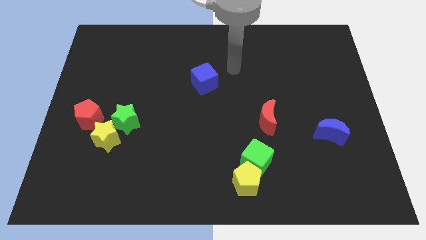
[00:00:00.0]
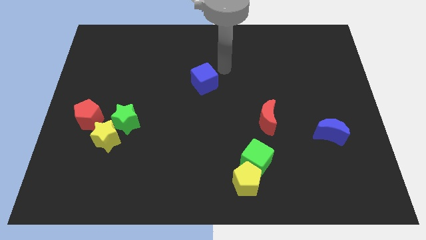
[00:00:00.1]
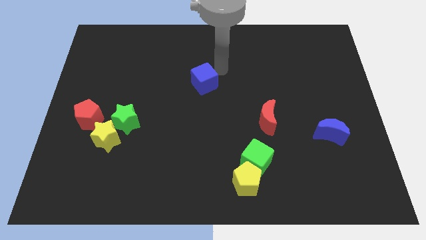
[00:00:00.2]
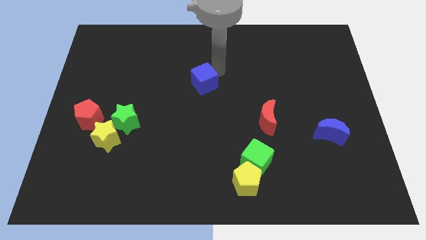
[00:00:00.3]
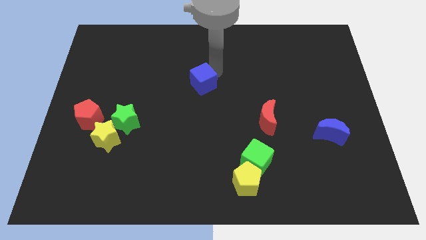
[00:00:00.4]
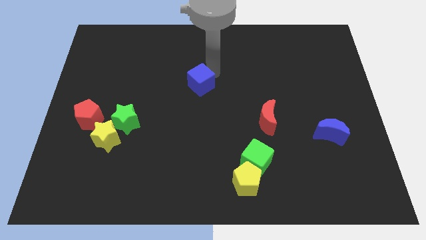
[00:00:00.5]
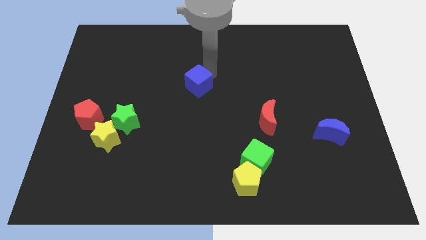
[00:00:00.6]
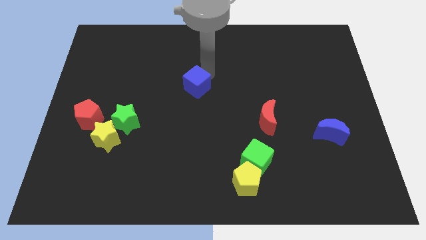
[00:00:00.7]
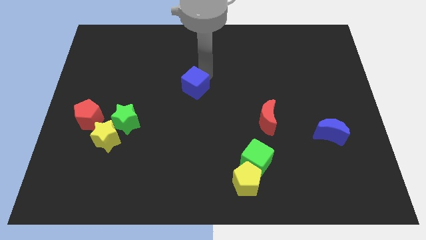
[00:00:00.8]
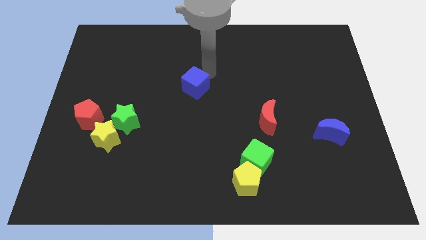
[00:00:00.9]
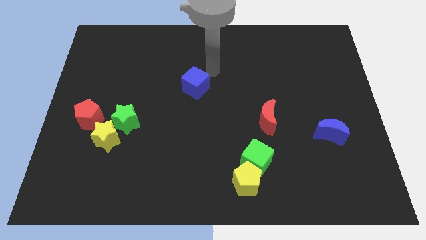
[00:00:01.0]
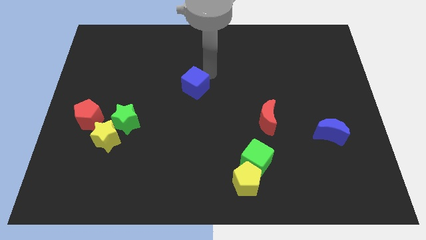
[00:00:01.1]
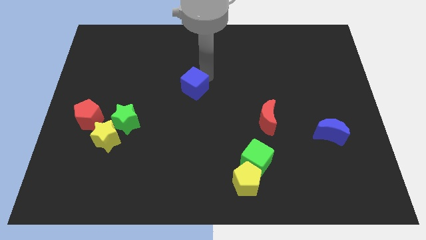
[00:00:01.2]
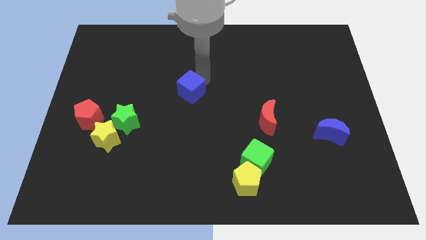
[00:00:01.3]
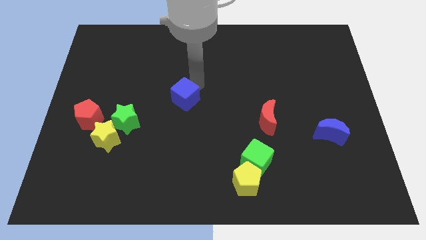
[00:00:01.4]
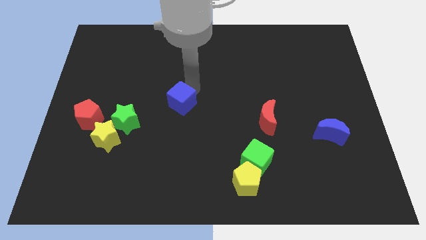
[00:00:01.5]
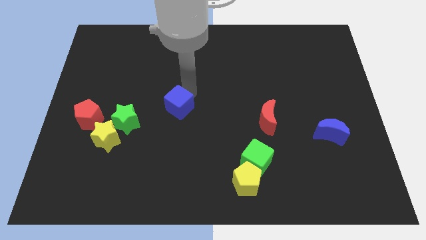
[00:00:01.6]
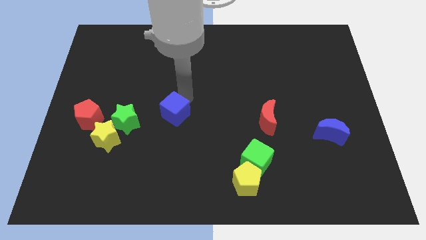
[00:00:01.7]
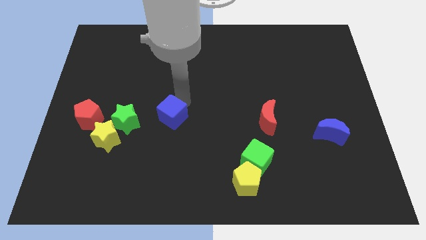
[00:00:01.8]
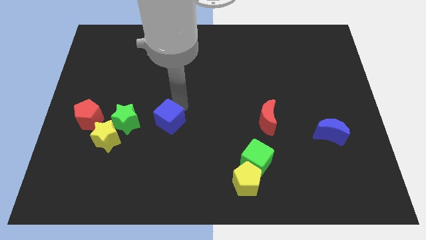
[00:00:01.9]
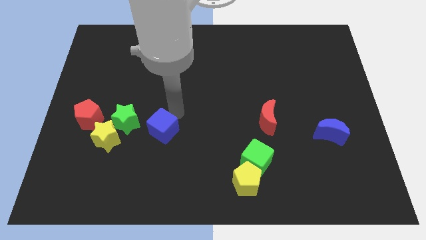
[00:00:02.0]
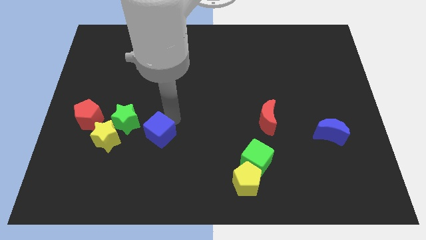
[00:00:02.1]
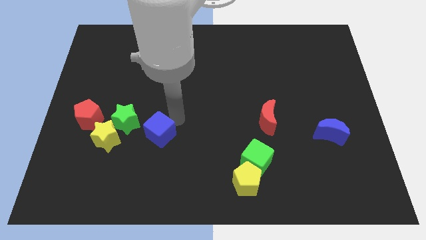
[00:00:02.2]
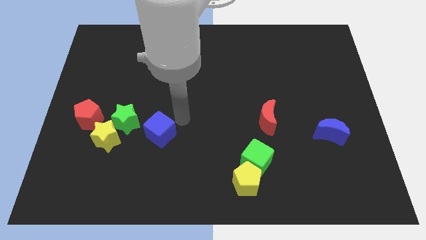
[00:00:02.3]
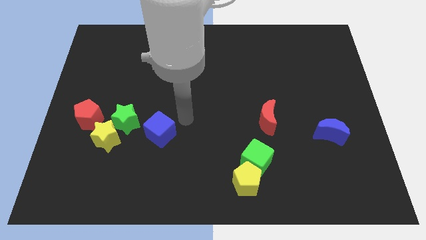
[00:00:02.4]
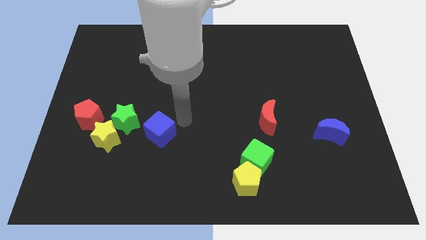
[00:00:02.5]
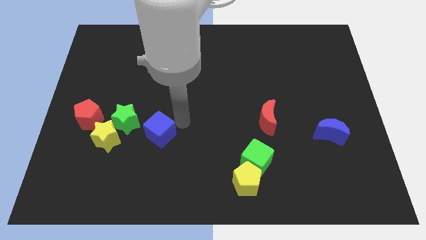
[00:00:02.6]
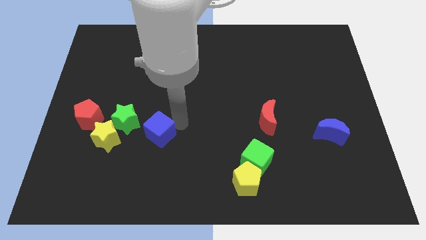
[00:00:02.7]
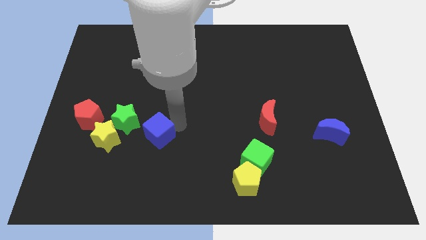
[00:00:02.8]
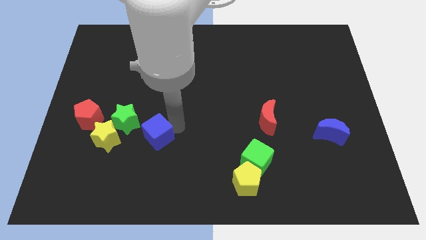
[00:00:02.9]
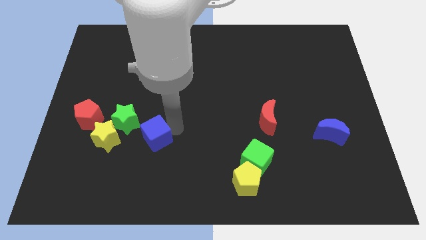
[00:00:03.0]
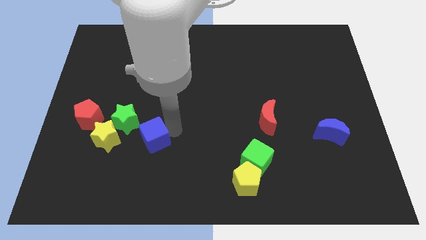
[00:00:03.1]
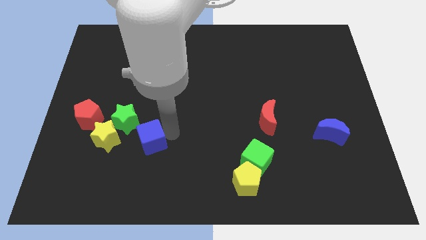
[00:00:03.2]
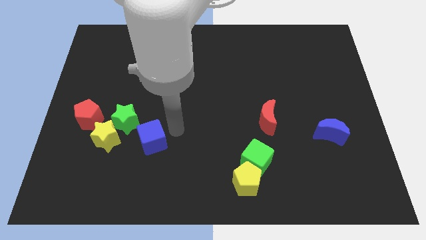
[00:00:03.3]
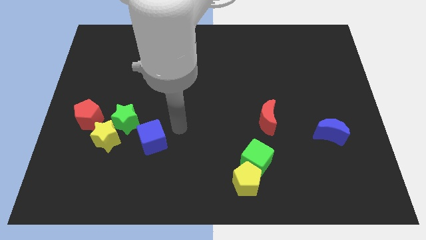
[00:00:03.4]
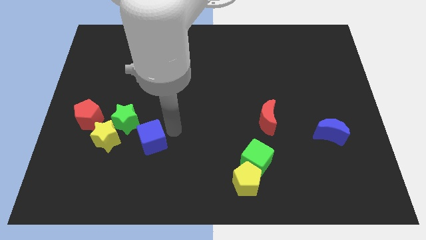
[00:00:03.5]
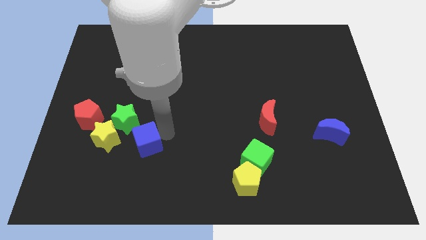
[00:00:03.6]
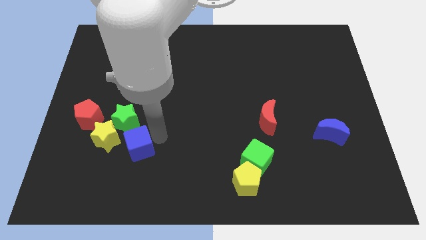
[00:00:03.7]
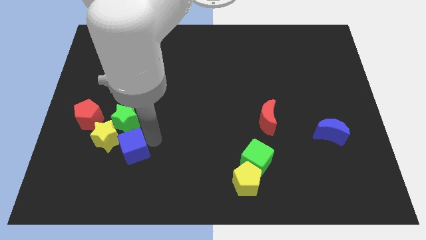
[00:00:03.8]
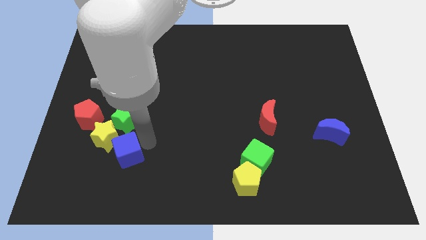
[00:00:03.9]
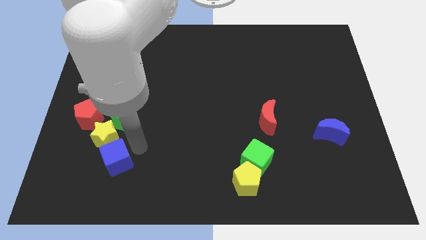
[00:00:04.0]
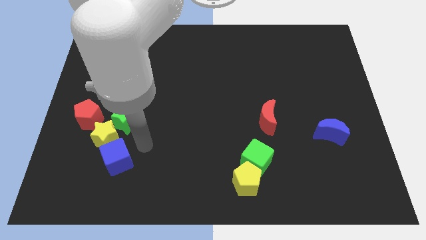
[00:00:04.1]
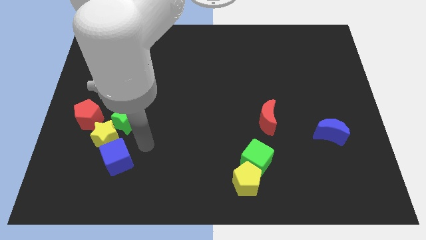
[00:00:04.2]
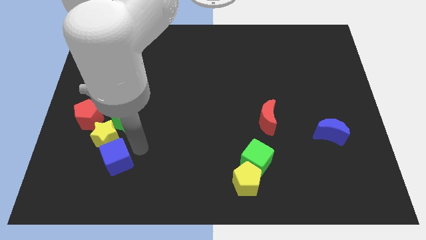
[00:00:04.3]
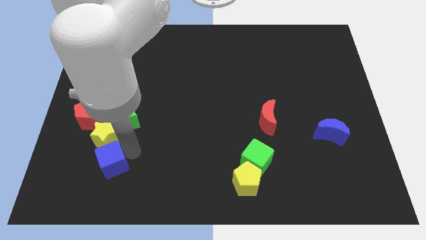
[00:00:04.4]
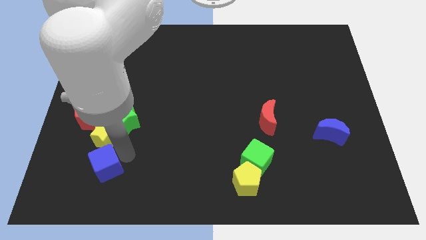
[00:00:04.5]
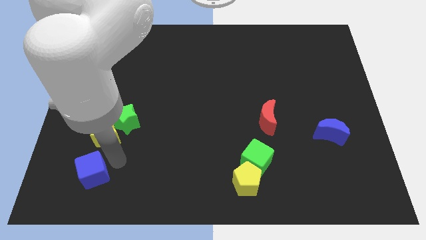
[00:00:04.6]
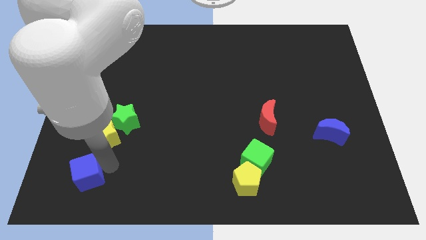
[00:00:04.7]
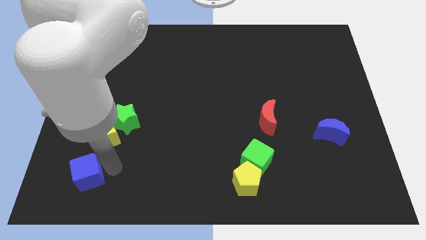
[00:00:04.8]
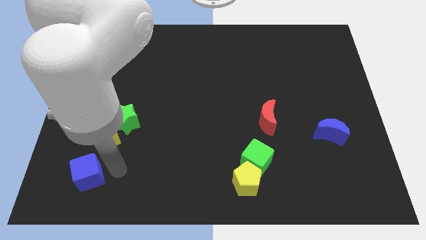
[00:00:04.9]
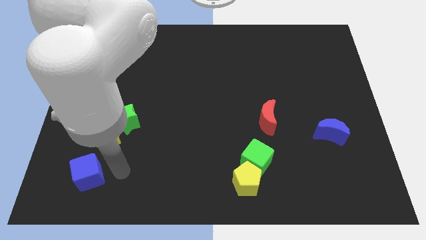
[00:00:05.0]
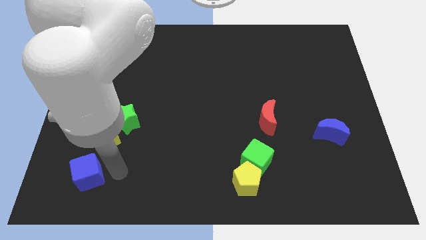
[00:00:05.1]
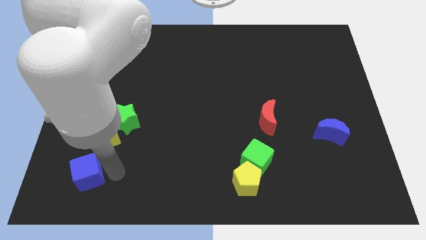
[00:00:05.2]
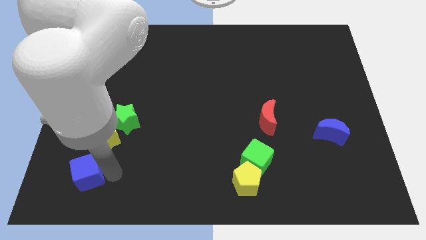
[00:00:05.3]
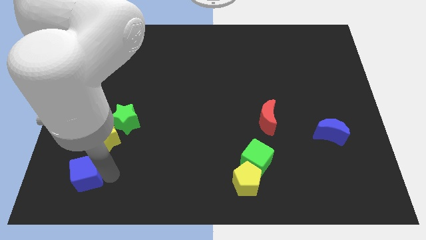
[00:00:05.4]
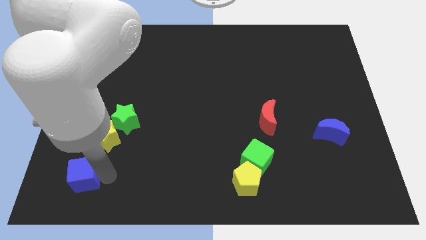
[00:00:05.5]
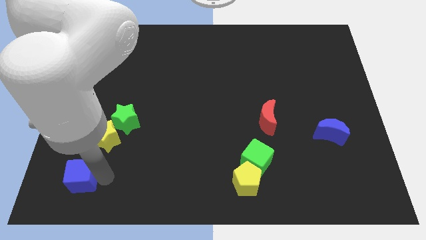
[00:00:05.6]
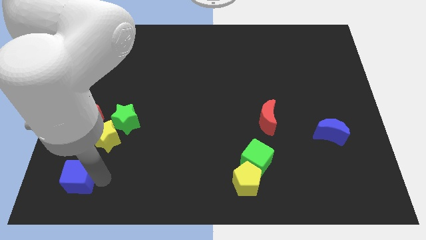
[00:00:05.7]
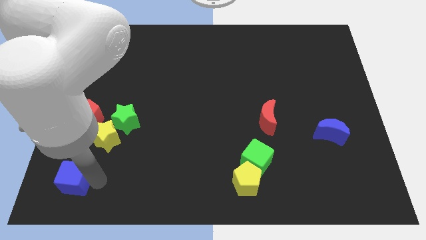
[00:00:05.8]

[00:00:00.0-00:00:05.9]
move the blue cube to the bottom left
